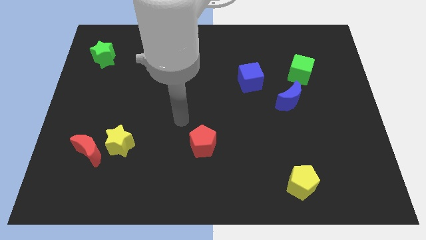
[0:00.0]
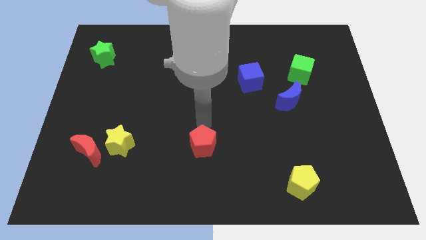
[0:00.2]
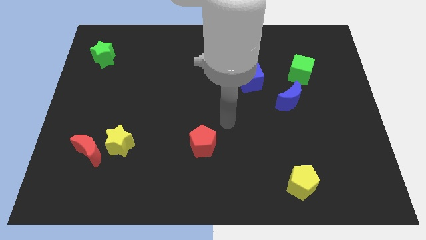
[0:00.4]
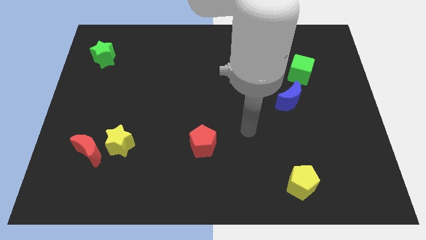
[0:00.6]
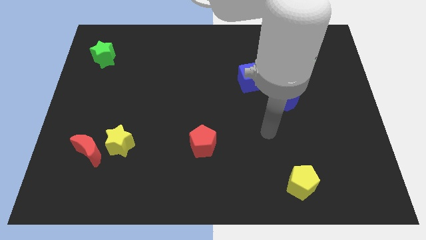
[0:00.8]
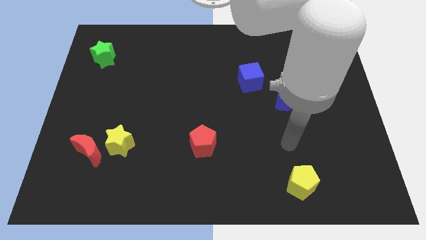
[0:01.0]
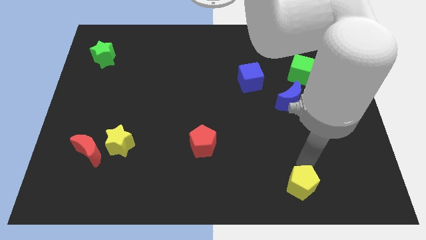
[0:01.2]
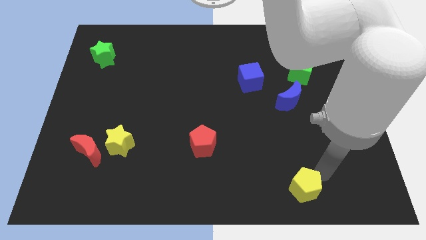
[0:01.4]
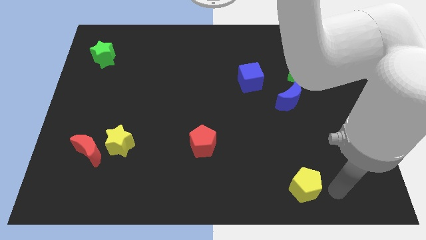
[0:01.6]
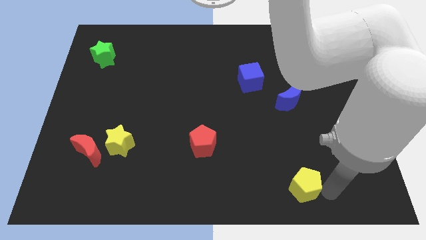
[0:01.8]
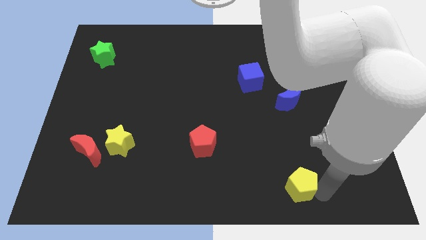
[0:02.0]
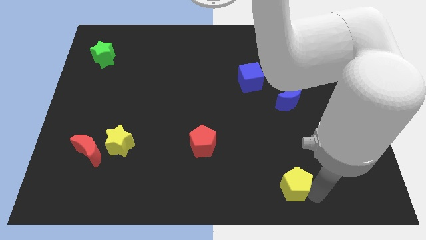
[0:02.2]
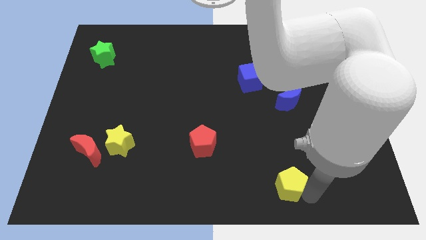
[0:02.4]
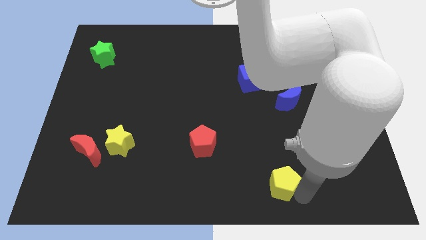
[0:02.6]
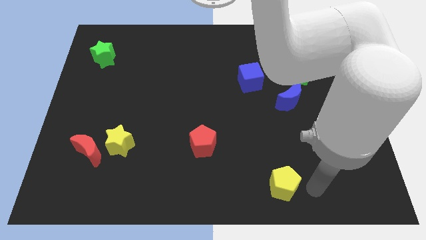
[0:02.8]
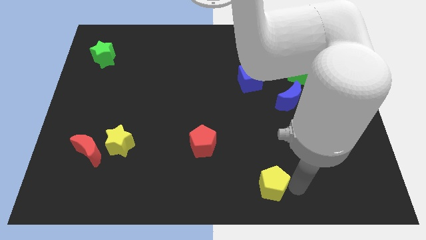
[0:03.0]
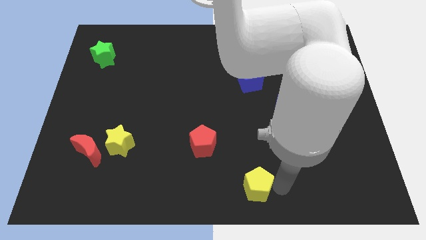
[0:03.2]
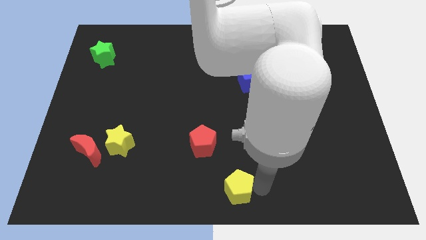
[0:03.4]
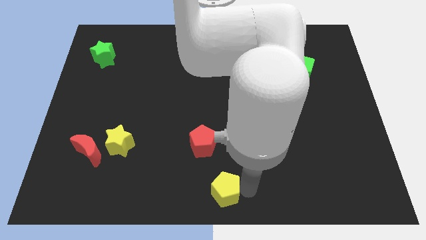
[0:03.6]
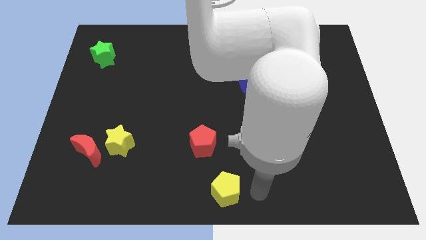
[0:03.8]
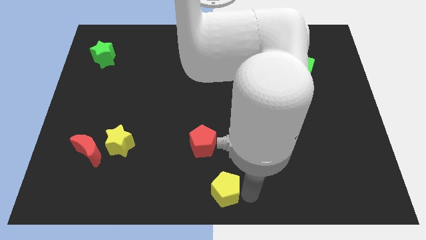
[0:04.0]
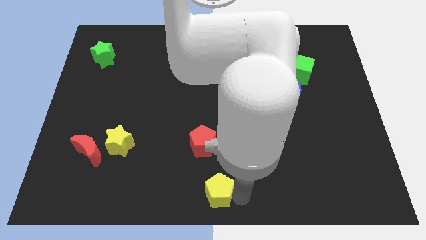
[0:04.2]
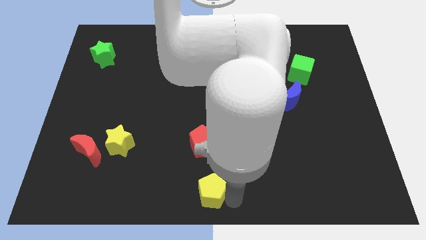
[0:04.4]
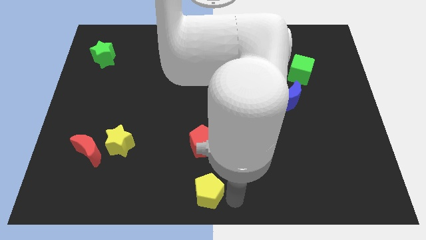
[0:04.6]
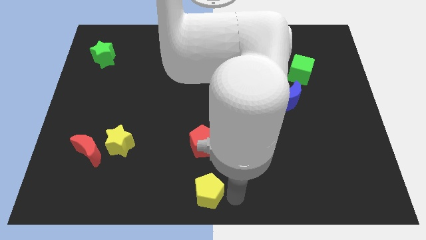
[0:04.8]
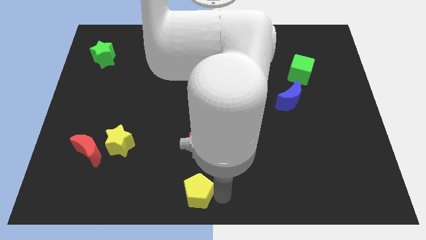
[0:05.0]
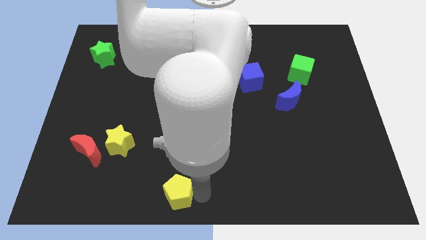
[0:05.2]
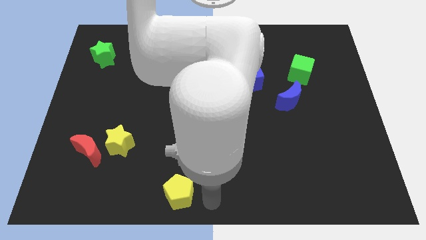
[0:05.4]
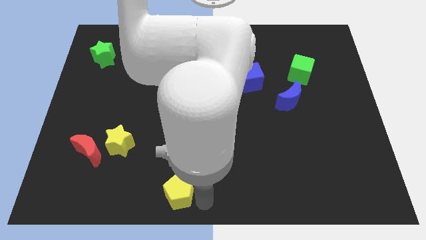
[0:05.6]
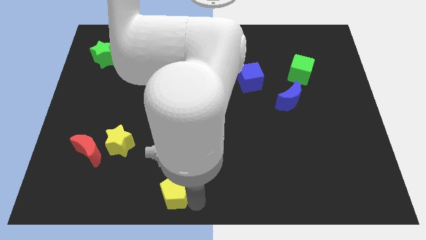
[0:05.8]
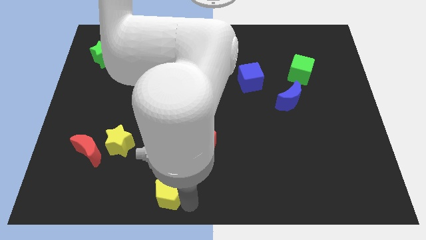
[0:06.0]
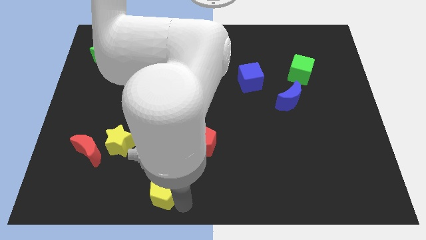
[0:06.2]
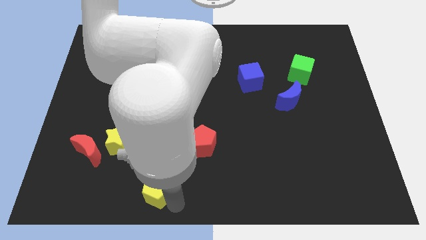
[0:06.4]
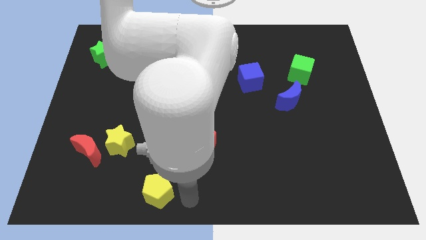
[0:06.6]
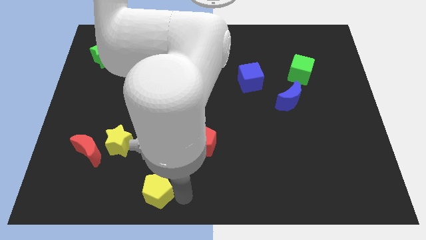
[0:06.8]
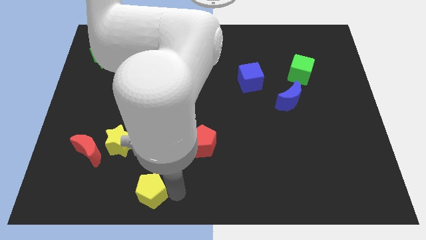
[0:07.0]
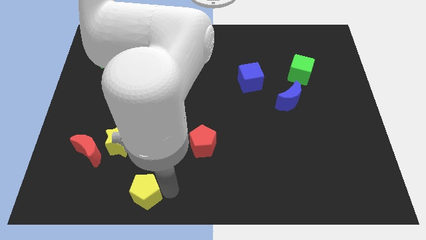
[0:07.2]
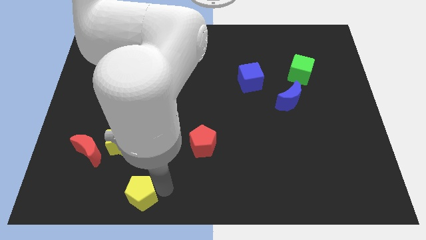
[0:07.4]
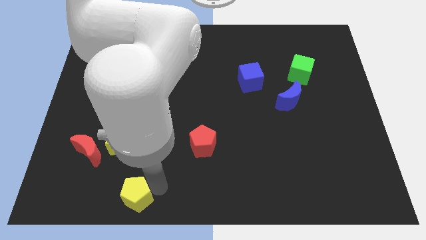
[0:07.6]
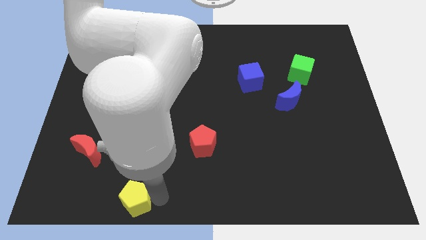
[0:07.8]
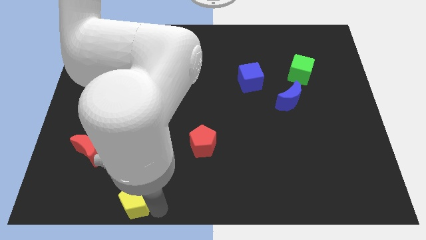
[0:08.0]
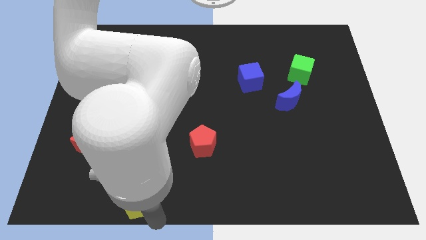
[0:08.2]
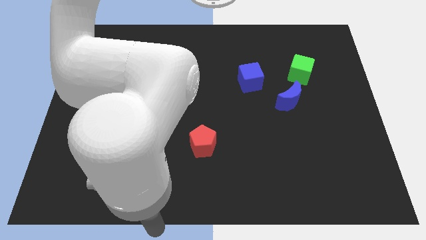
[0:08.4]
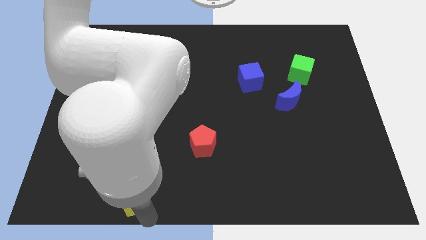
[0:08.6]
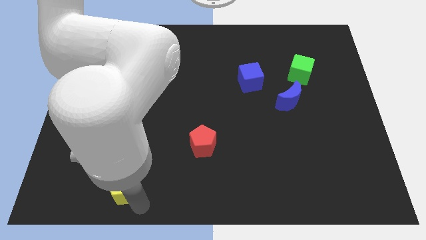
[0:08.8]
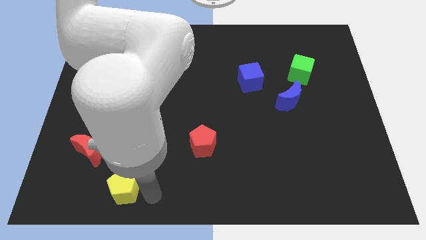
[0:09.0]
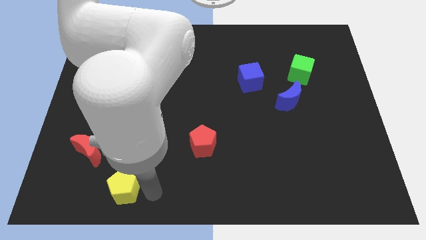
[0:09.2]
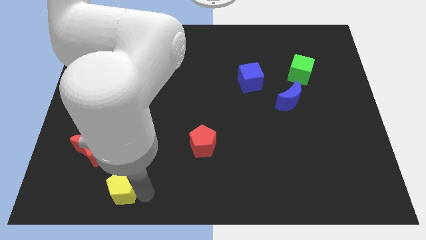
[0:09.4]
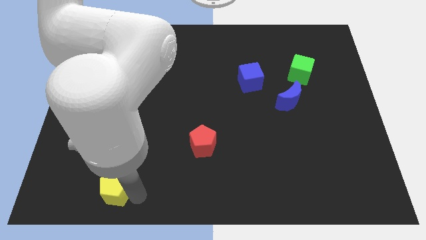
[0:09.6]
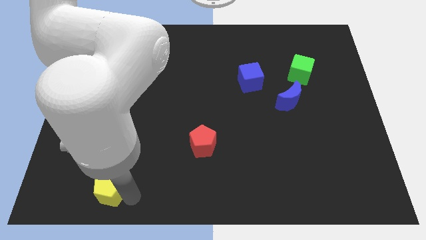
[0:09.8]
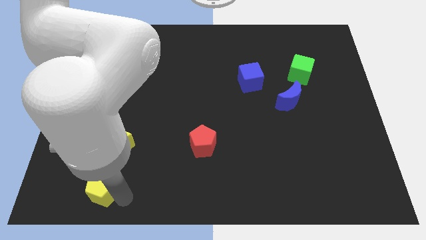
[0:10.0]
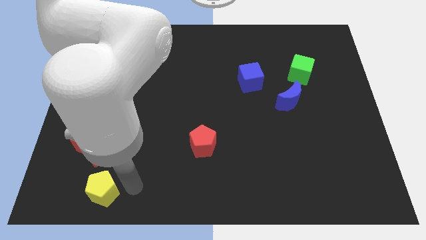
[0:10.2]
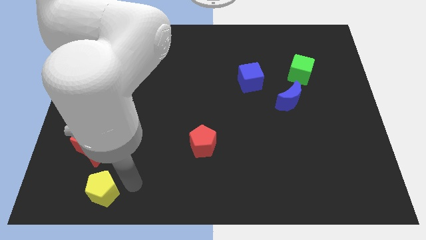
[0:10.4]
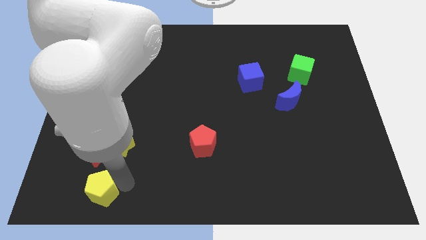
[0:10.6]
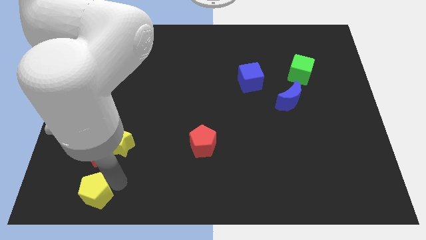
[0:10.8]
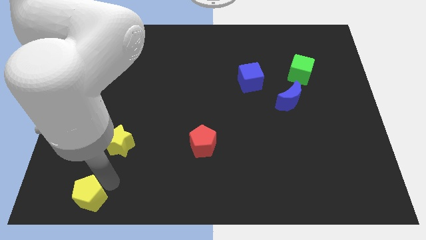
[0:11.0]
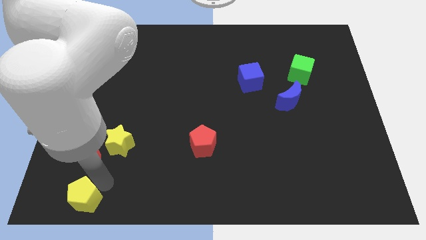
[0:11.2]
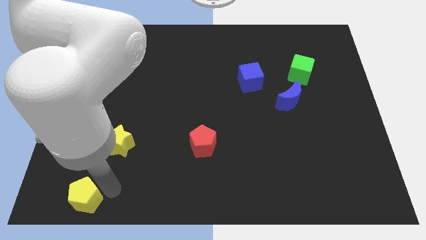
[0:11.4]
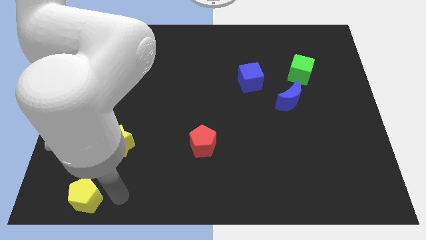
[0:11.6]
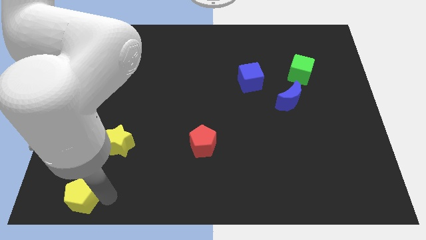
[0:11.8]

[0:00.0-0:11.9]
put the yellow pentagon to the bottom left of the board
